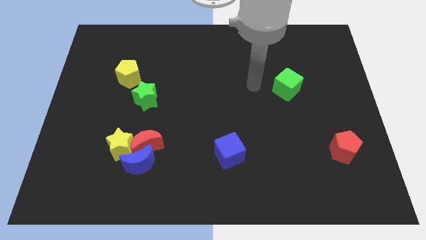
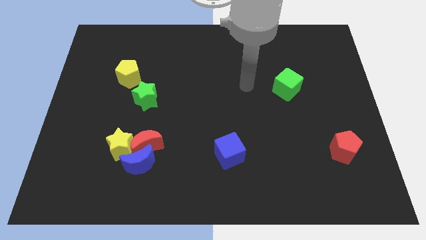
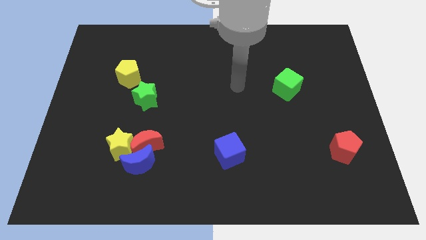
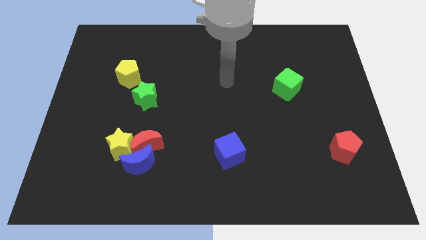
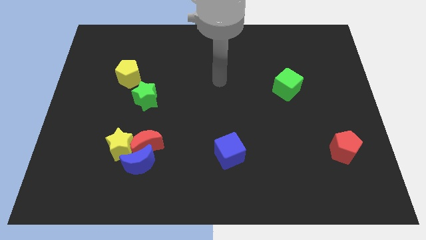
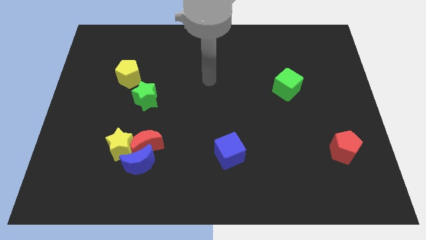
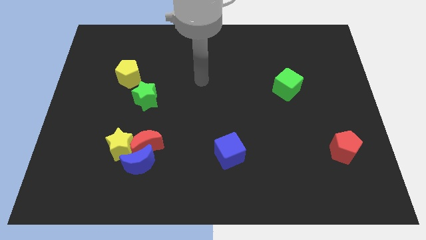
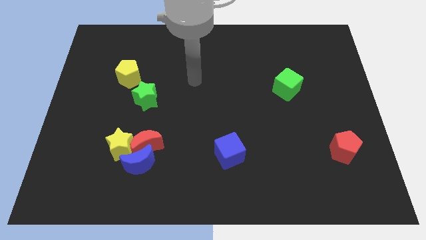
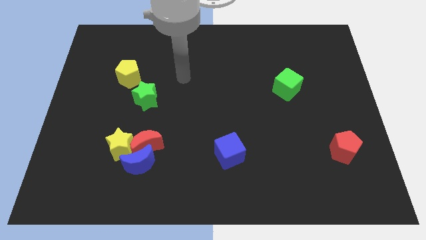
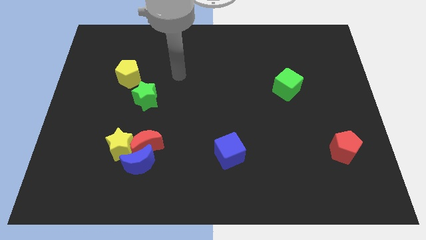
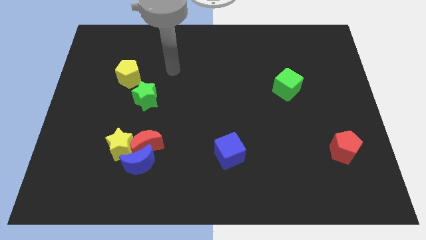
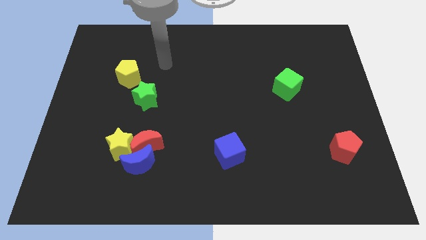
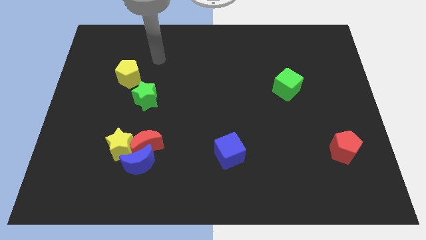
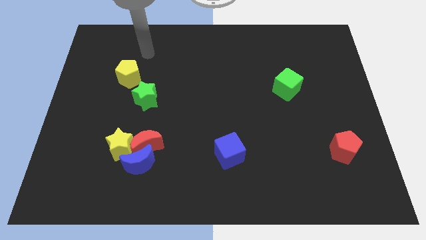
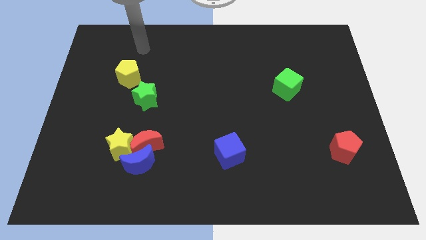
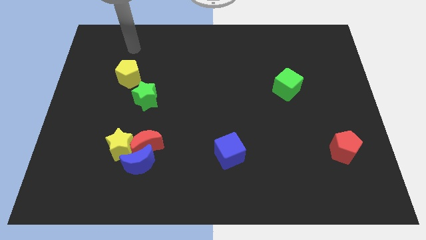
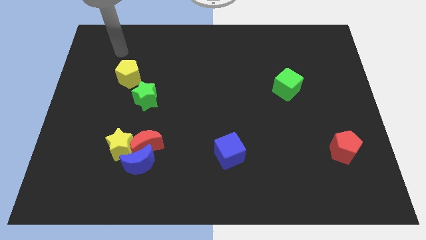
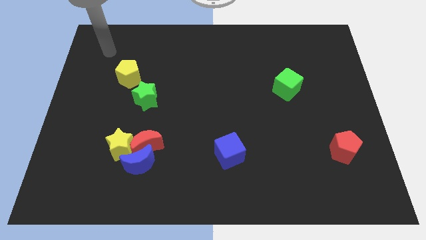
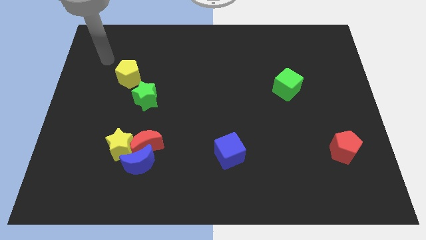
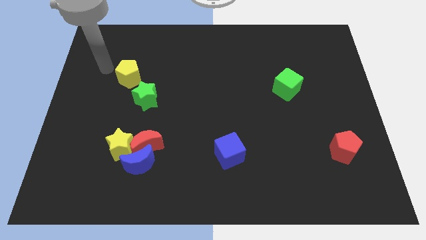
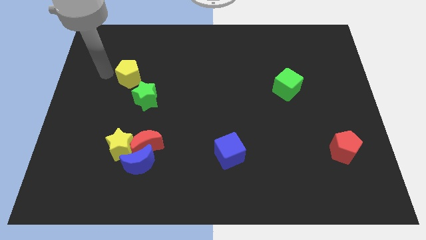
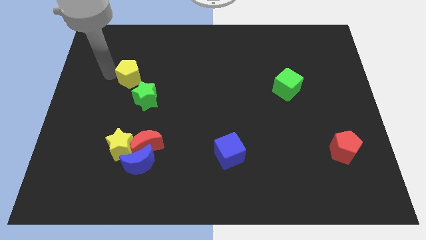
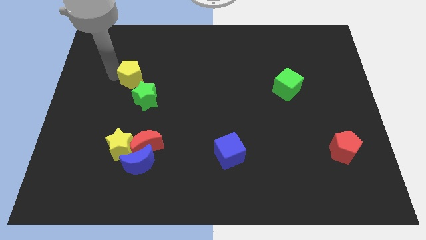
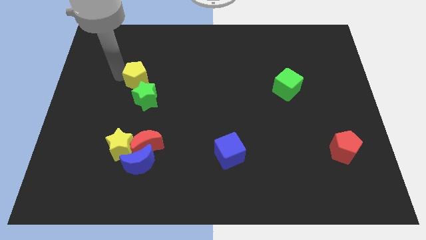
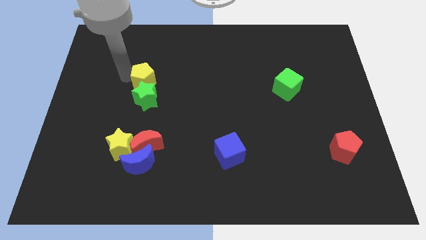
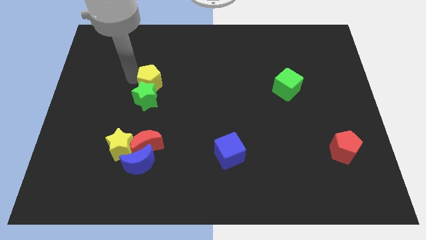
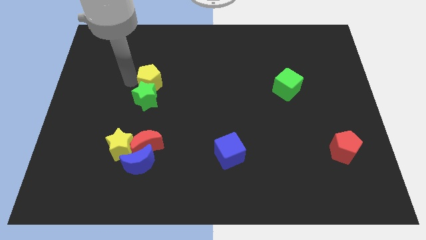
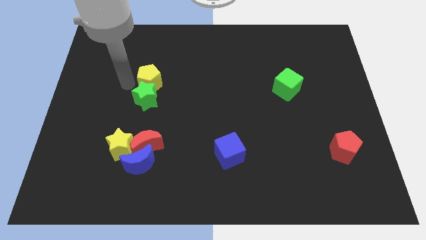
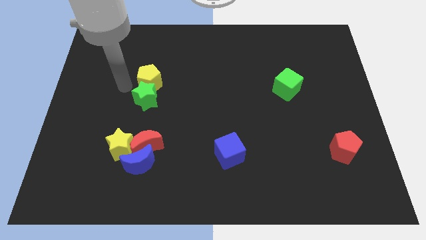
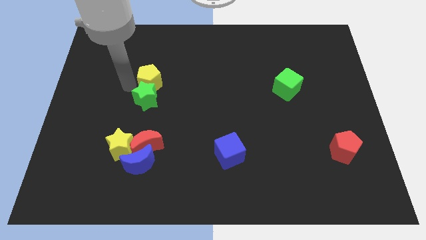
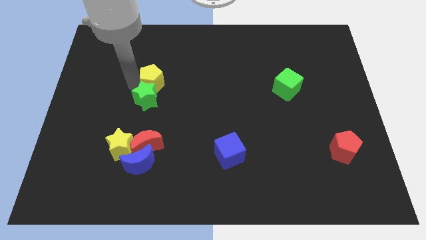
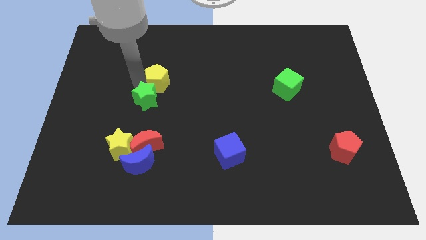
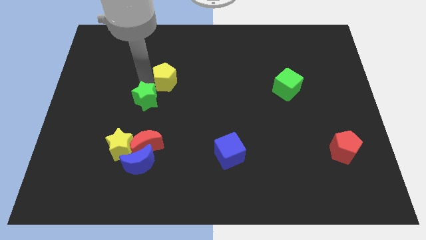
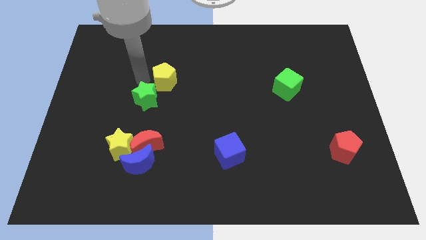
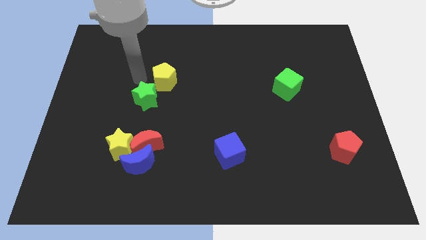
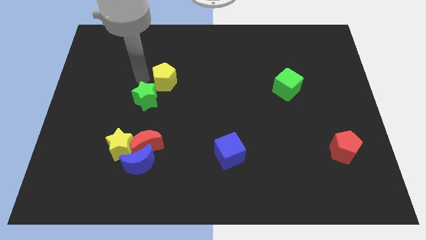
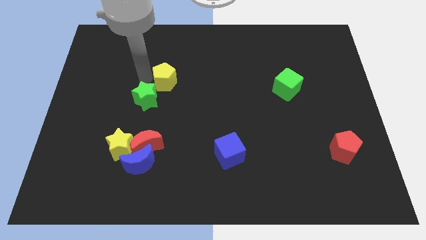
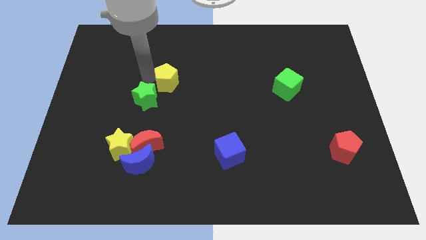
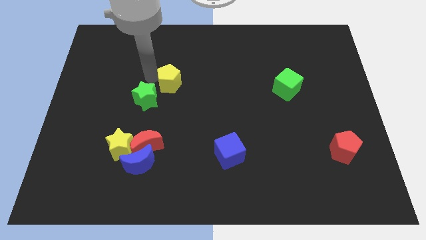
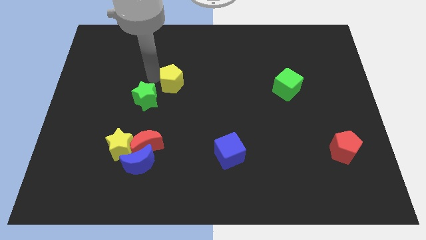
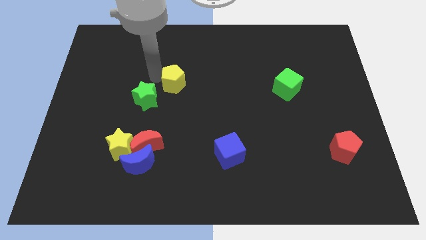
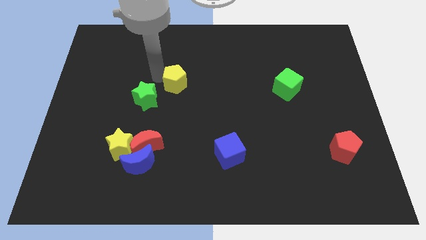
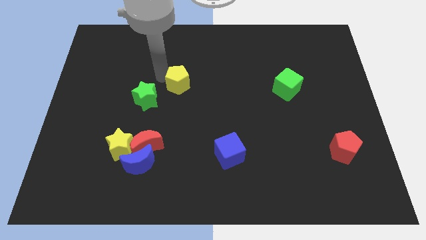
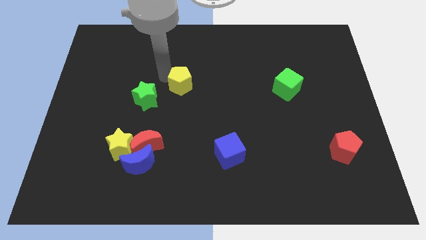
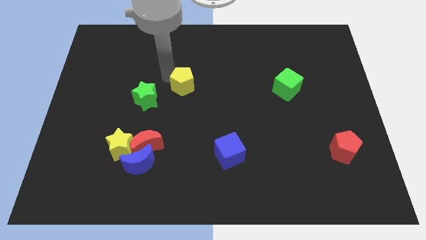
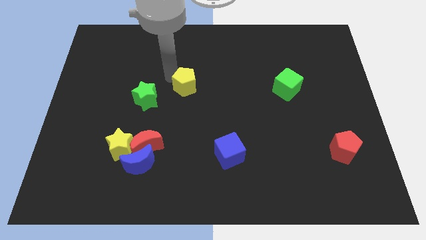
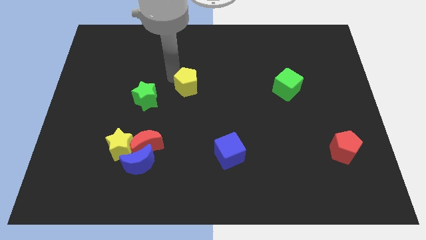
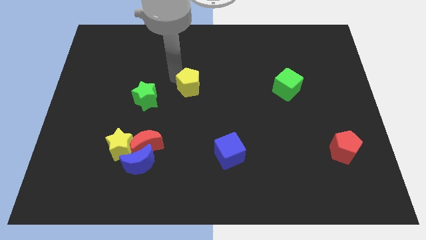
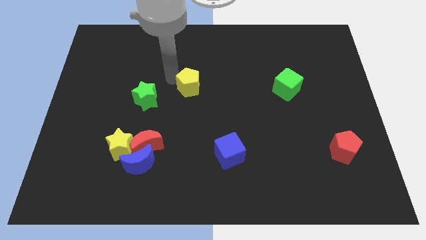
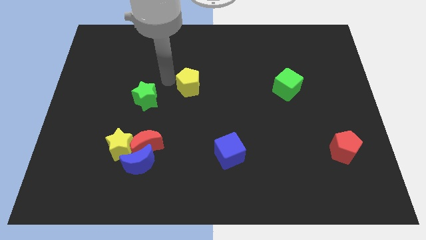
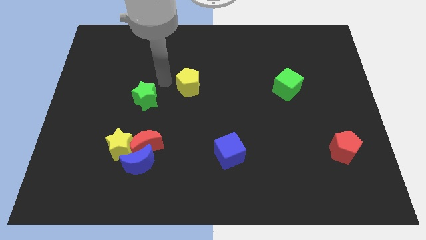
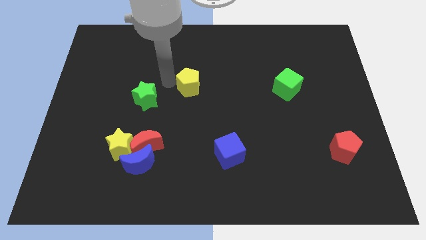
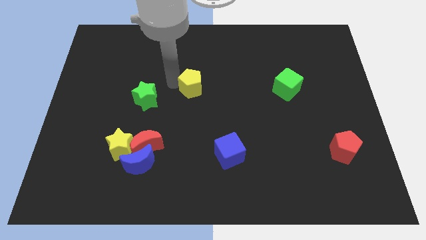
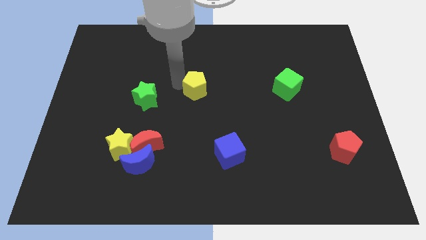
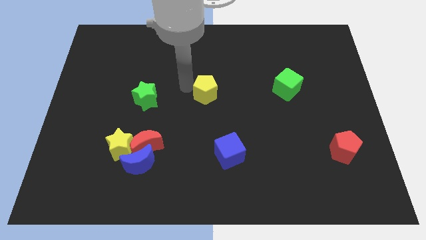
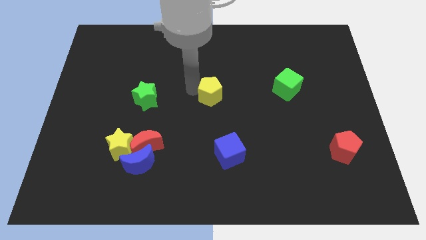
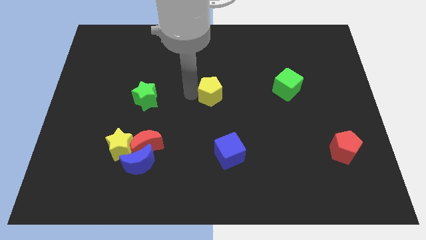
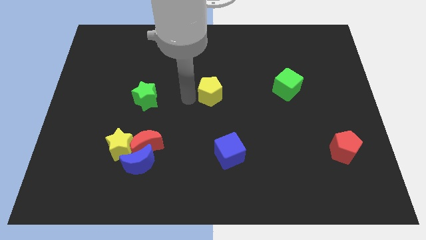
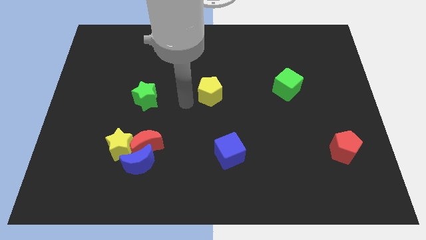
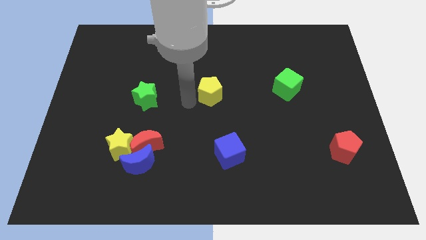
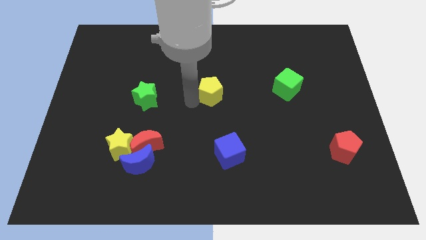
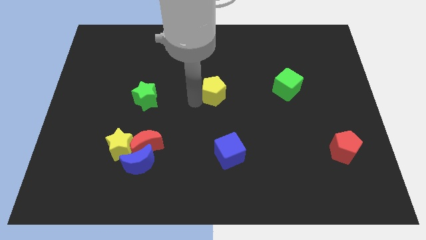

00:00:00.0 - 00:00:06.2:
move the yellow pentagon to the right

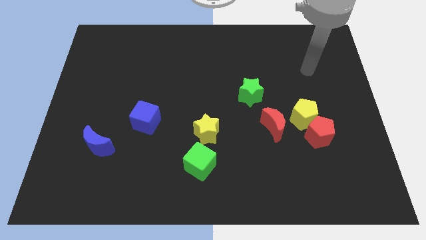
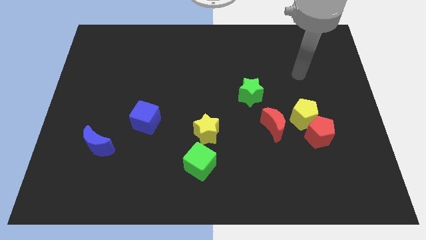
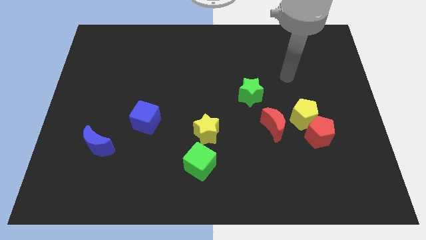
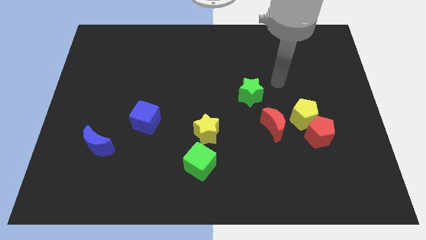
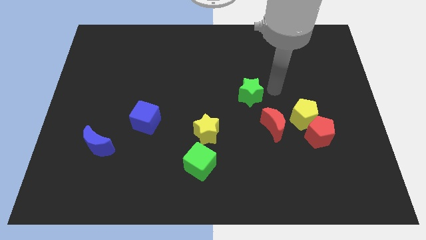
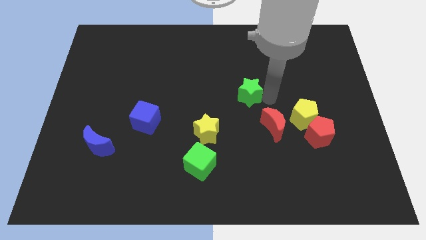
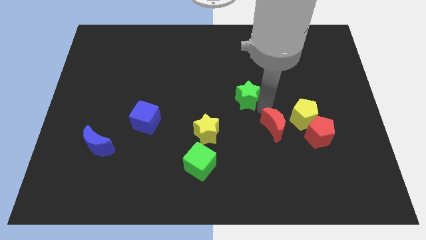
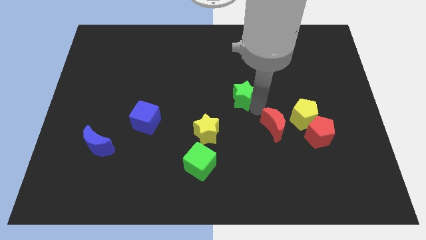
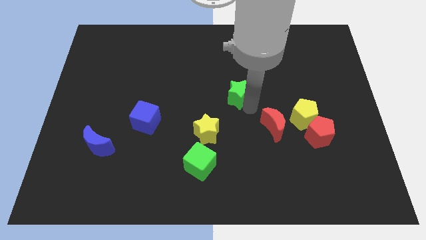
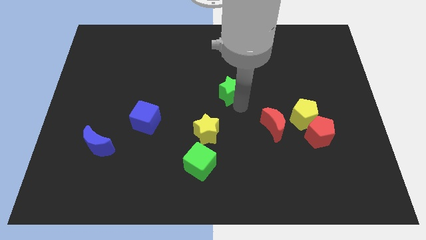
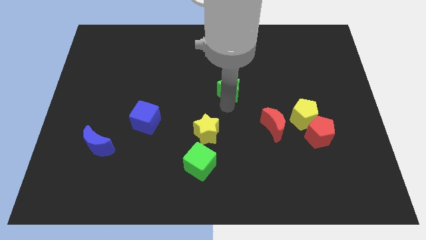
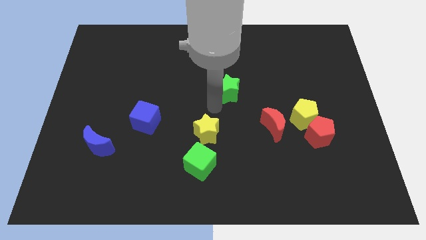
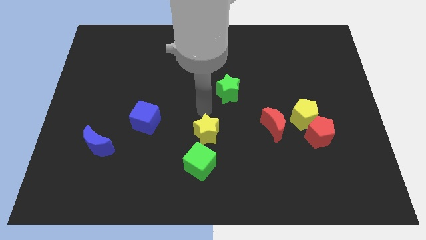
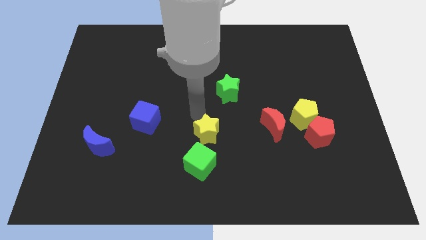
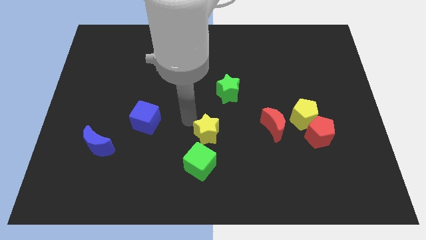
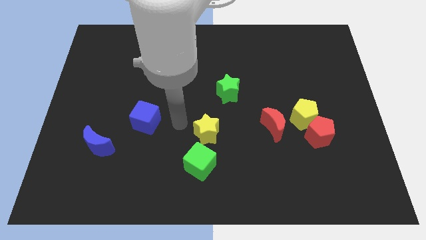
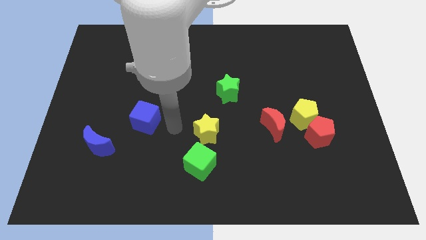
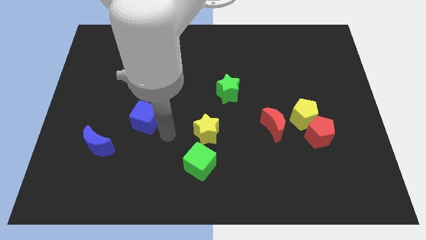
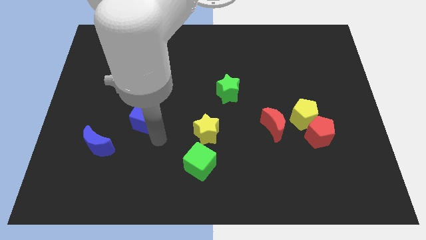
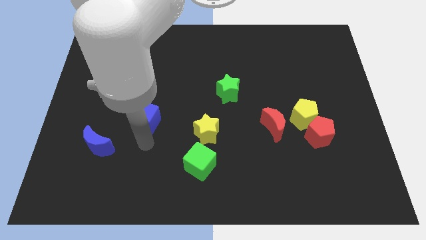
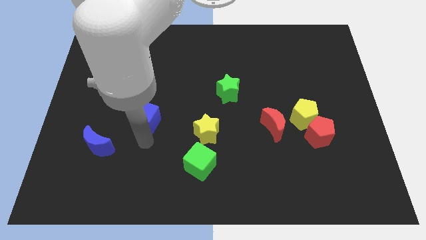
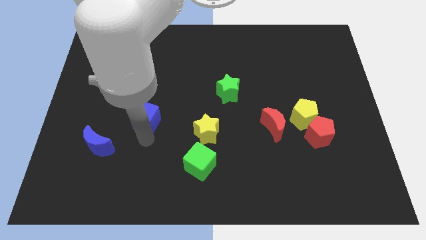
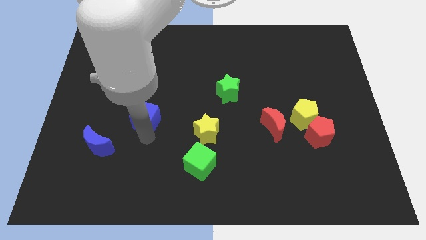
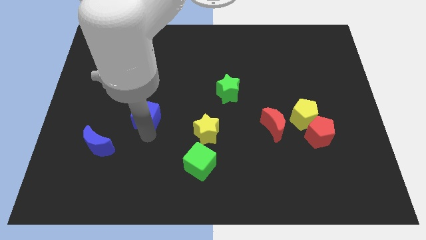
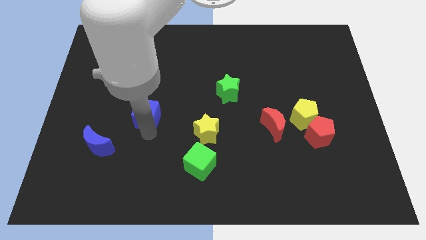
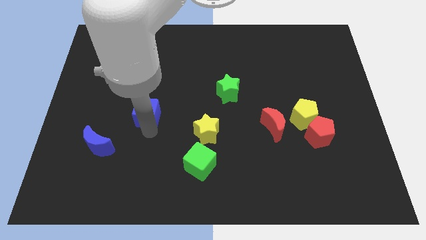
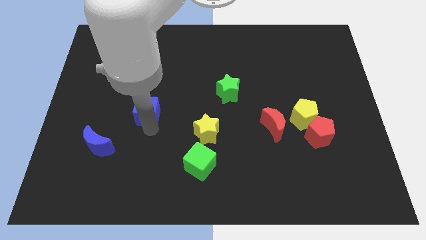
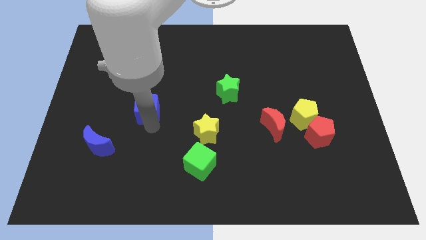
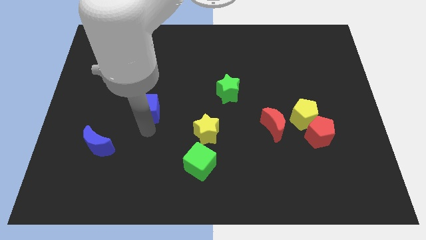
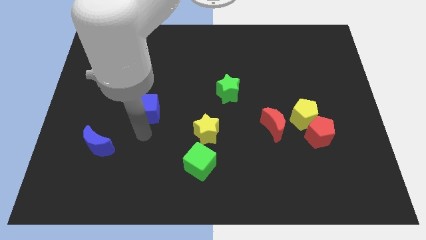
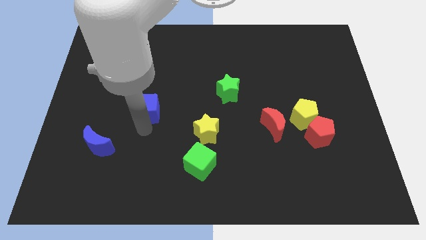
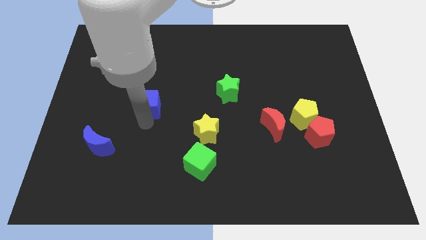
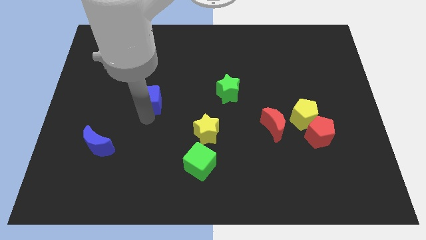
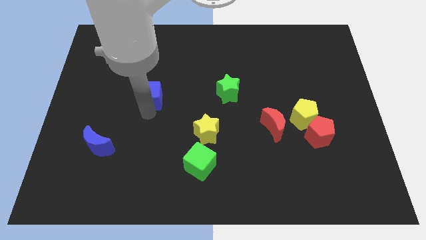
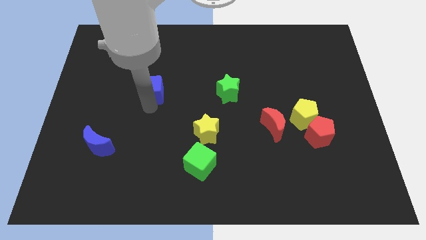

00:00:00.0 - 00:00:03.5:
slightly move the blue cube up
